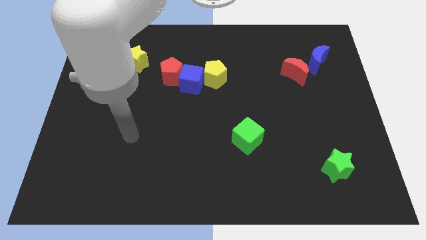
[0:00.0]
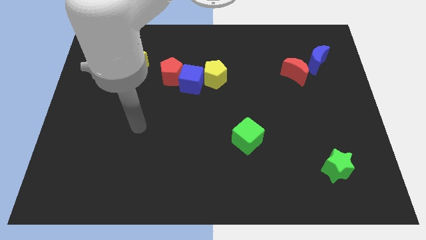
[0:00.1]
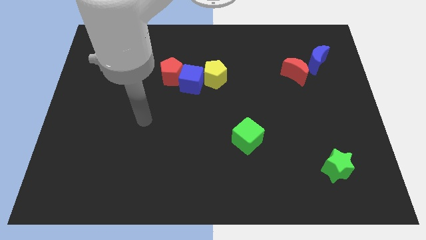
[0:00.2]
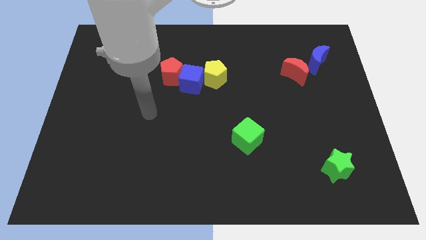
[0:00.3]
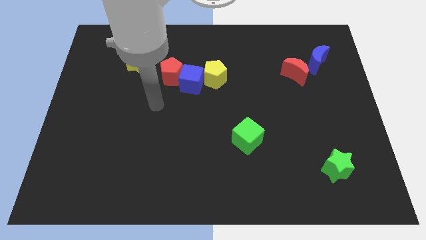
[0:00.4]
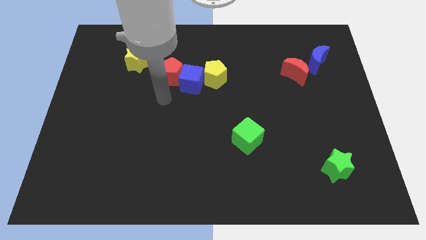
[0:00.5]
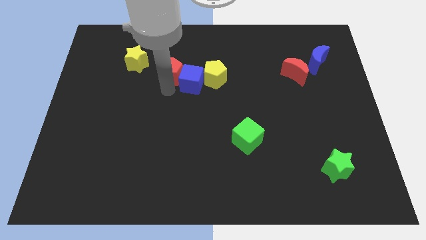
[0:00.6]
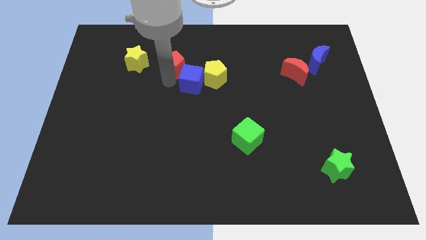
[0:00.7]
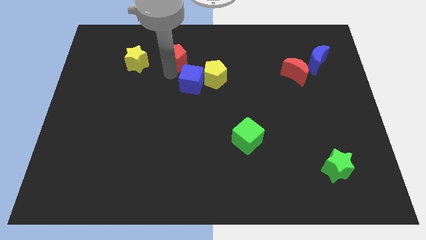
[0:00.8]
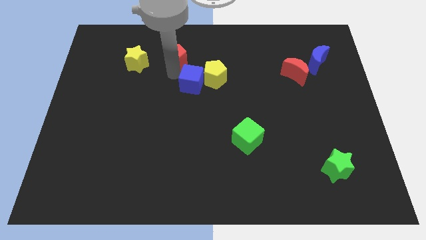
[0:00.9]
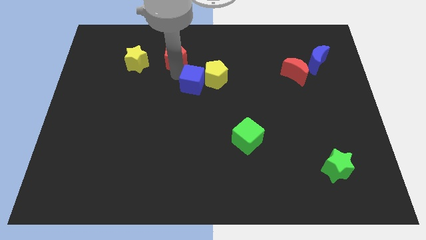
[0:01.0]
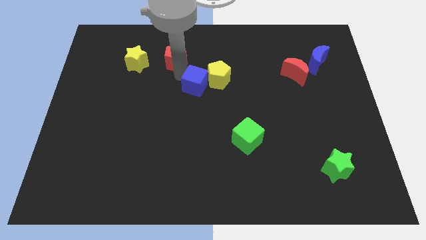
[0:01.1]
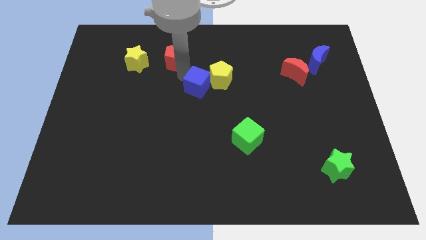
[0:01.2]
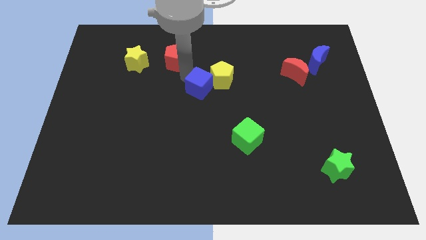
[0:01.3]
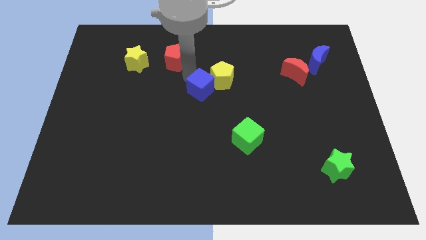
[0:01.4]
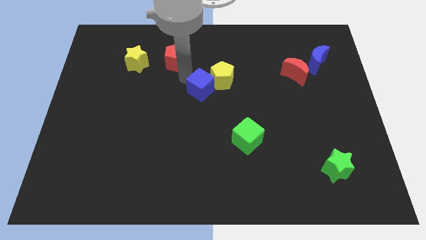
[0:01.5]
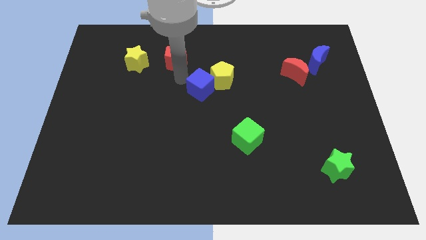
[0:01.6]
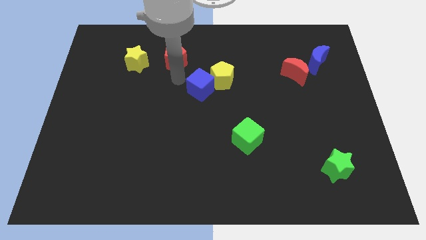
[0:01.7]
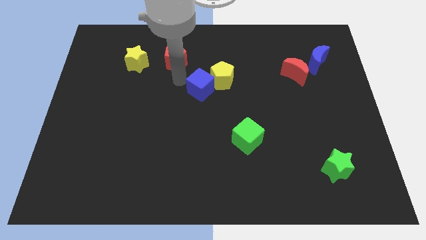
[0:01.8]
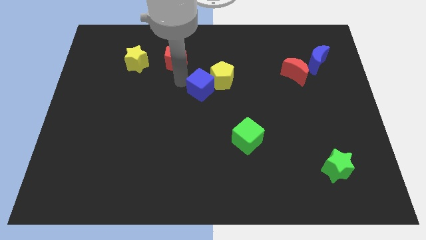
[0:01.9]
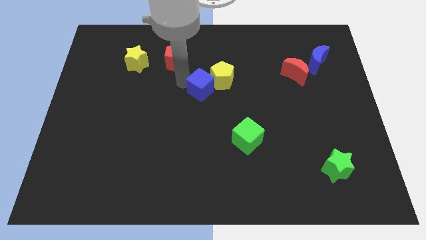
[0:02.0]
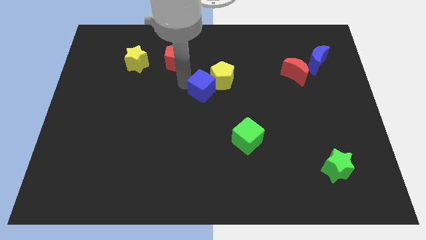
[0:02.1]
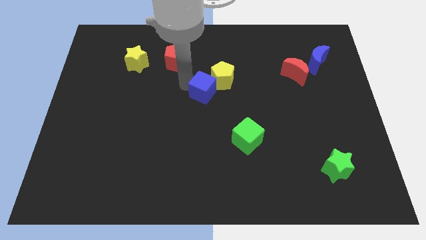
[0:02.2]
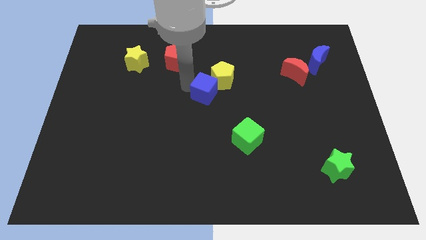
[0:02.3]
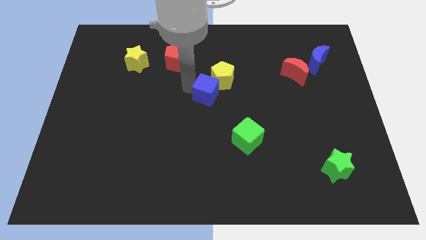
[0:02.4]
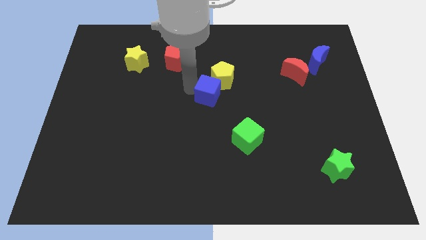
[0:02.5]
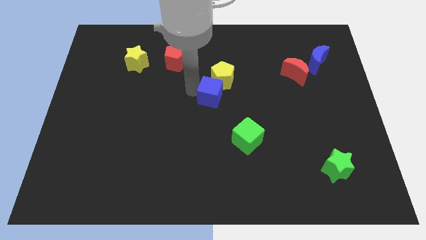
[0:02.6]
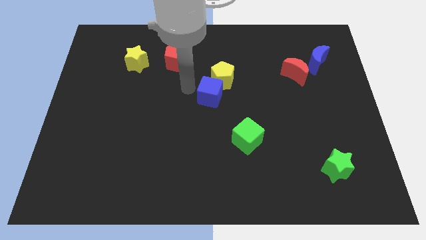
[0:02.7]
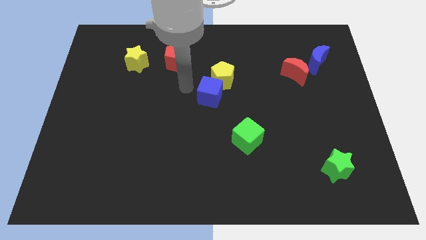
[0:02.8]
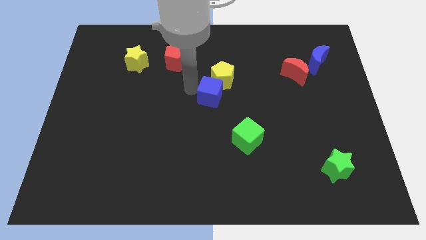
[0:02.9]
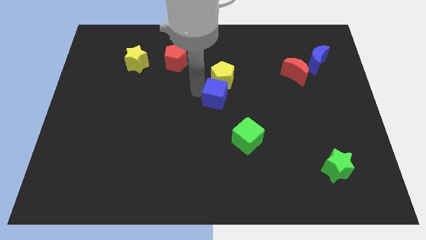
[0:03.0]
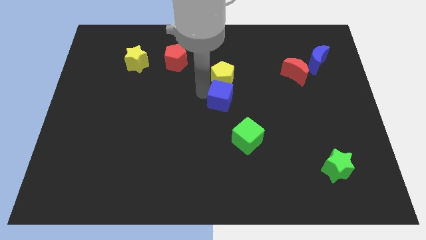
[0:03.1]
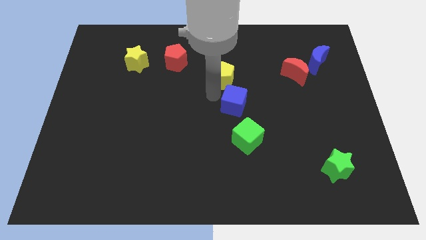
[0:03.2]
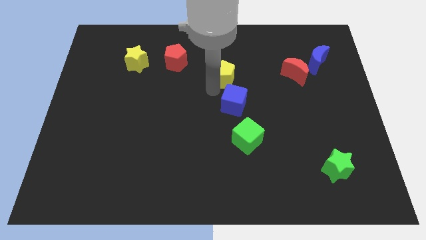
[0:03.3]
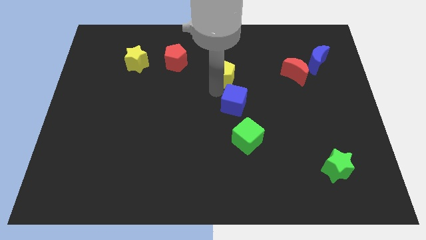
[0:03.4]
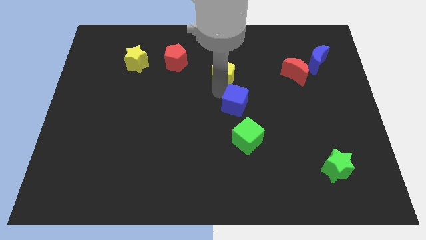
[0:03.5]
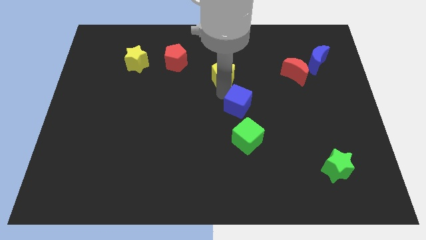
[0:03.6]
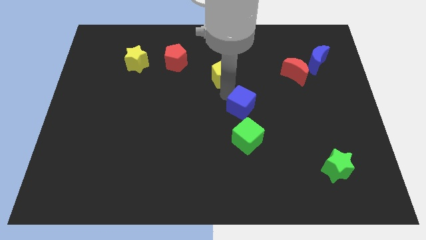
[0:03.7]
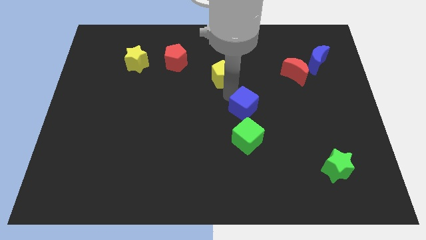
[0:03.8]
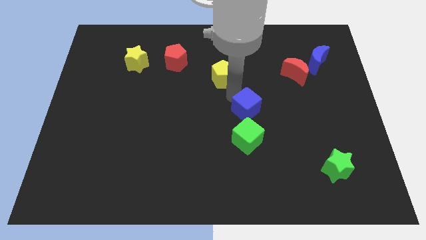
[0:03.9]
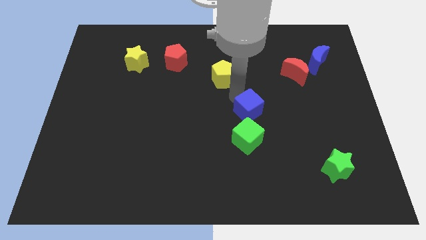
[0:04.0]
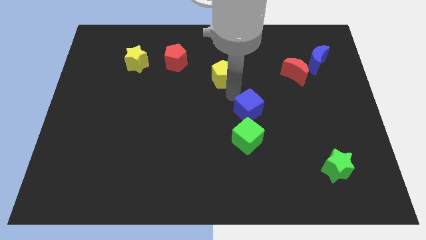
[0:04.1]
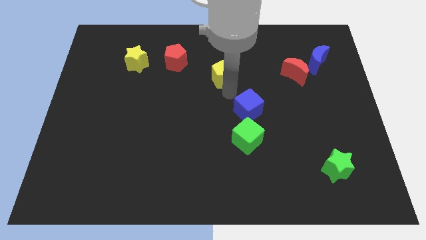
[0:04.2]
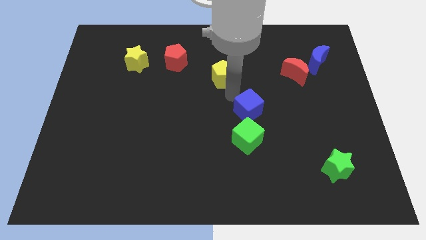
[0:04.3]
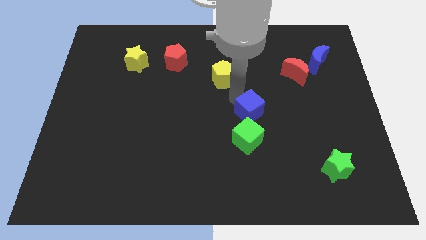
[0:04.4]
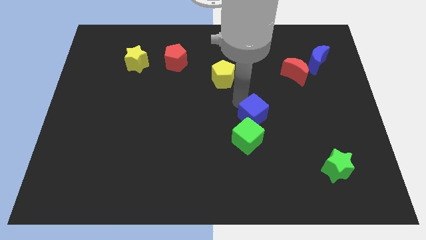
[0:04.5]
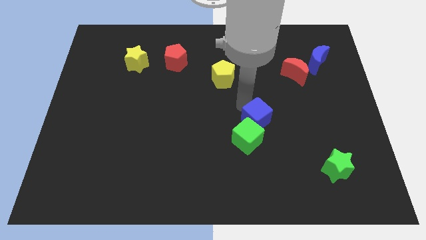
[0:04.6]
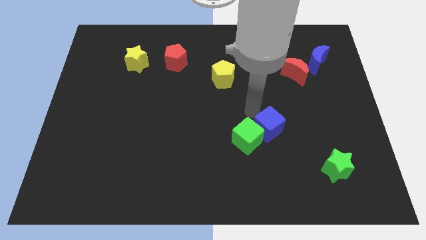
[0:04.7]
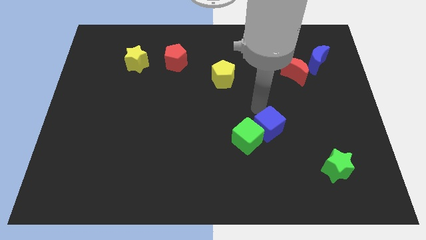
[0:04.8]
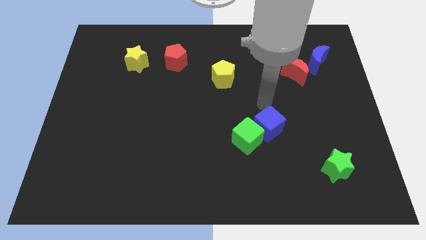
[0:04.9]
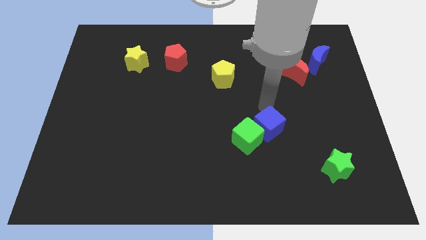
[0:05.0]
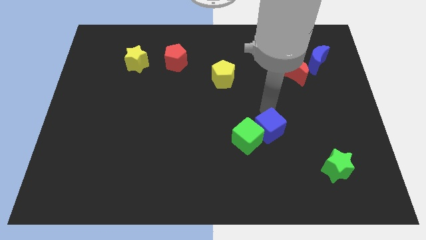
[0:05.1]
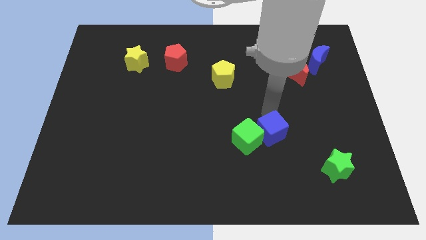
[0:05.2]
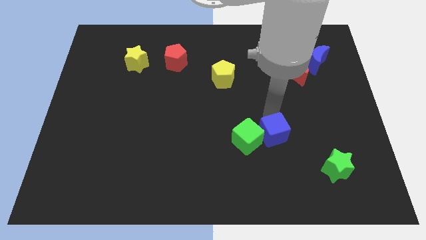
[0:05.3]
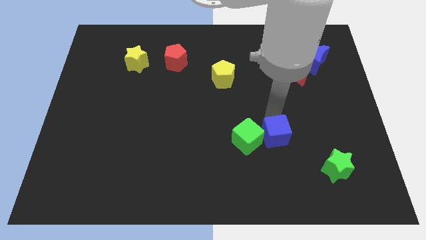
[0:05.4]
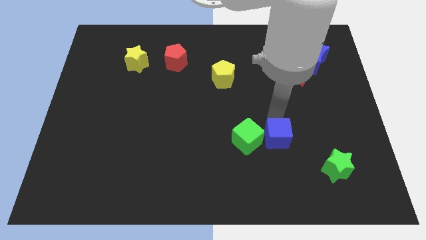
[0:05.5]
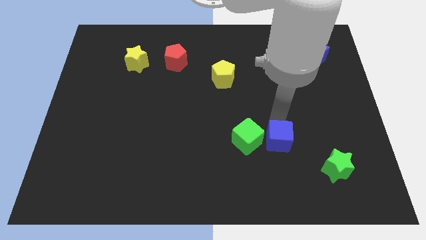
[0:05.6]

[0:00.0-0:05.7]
move the blue cube to the bottom right side of the green cube

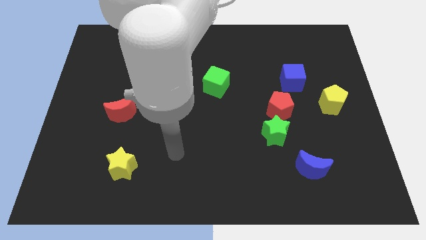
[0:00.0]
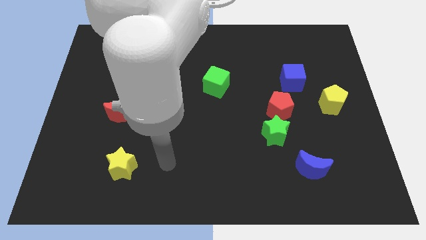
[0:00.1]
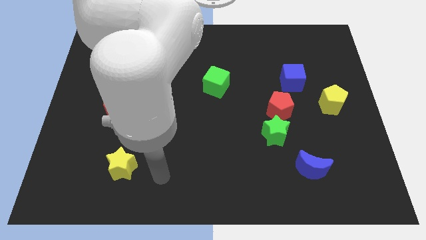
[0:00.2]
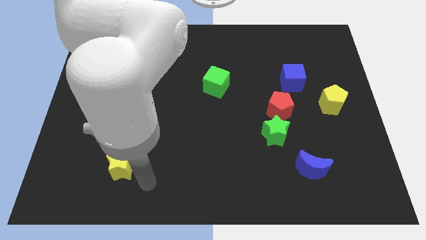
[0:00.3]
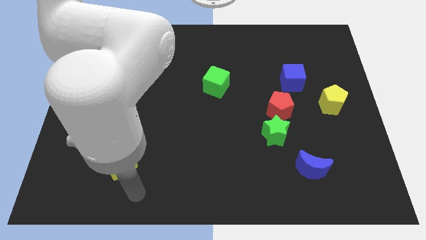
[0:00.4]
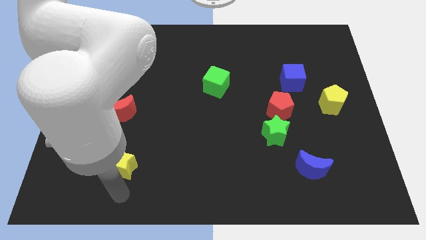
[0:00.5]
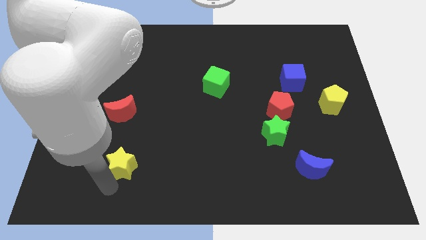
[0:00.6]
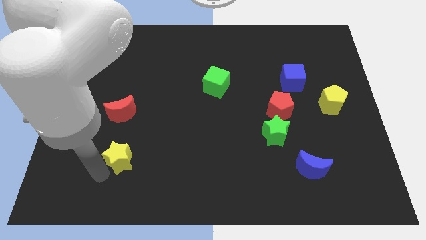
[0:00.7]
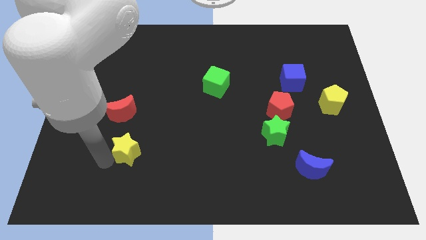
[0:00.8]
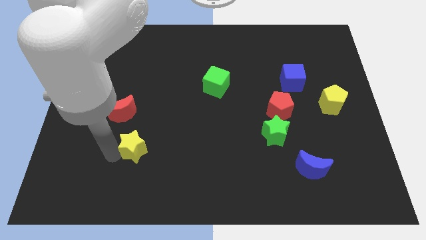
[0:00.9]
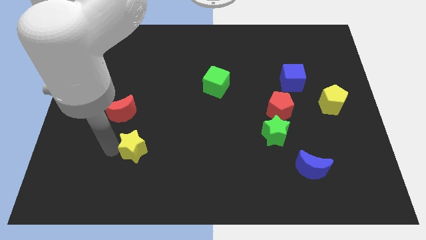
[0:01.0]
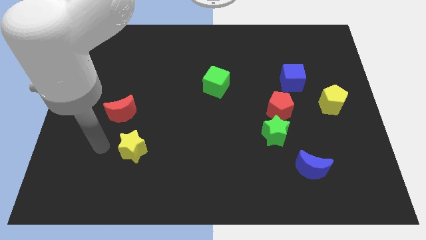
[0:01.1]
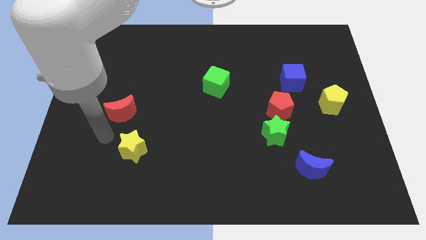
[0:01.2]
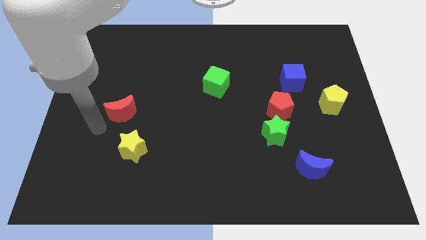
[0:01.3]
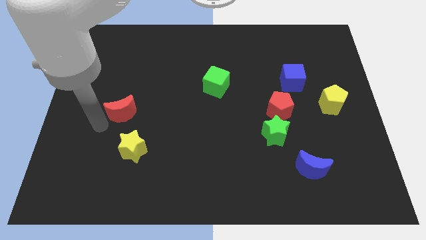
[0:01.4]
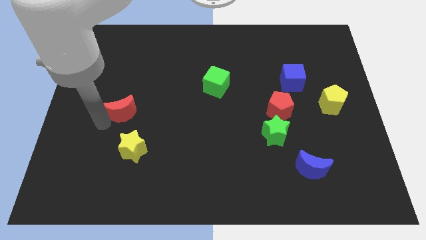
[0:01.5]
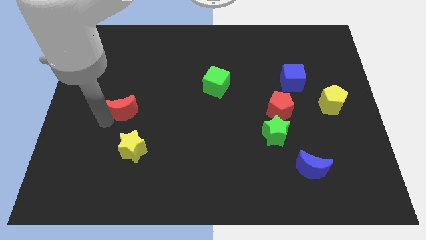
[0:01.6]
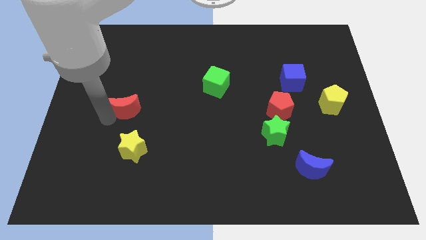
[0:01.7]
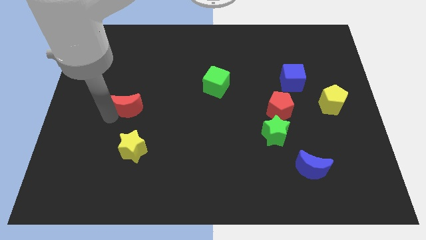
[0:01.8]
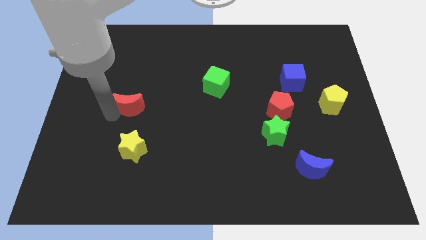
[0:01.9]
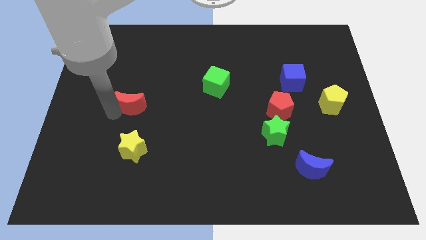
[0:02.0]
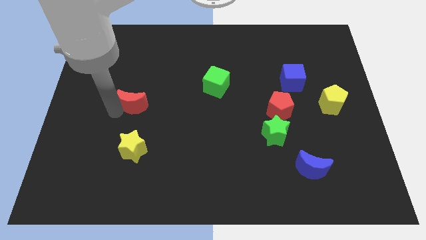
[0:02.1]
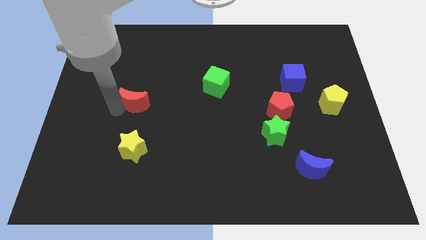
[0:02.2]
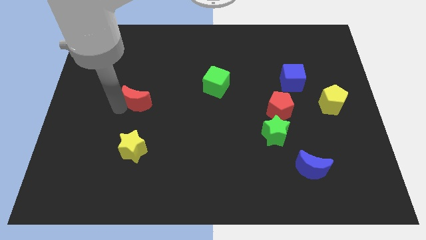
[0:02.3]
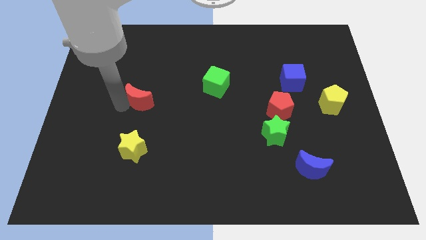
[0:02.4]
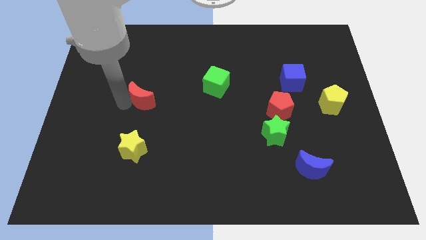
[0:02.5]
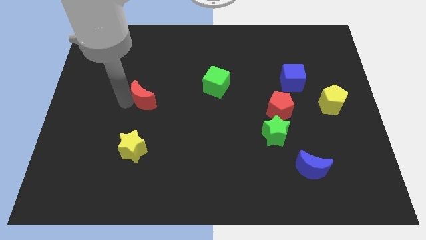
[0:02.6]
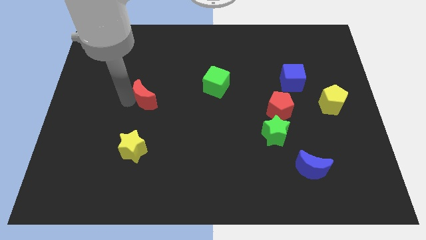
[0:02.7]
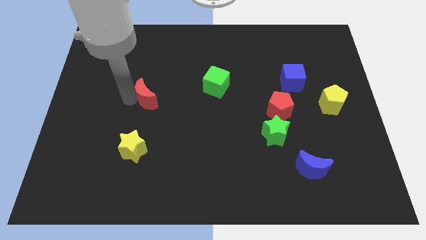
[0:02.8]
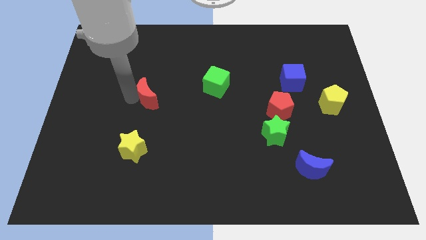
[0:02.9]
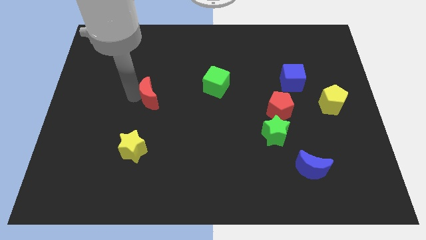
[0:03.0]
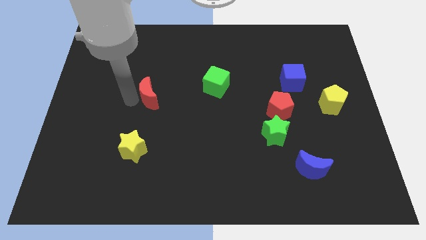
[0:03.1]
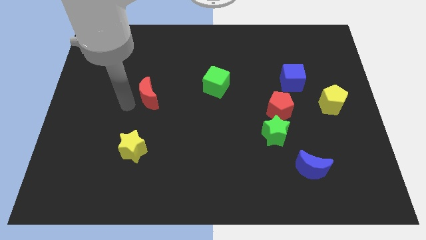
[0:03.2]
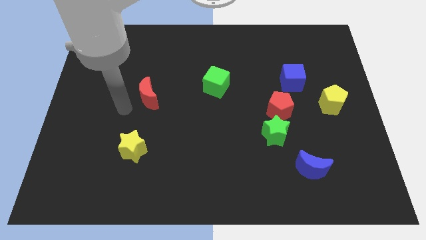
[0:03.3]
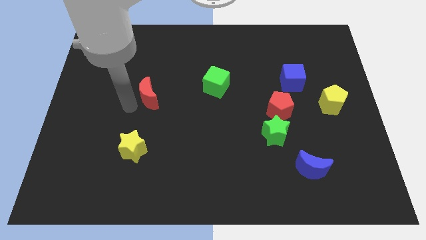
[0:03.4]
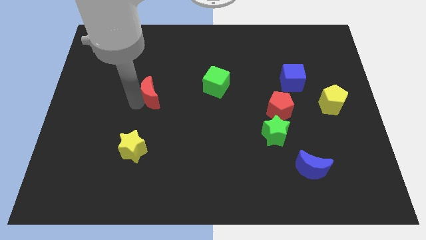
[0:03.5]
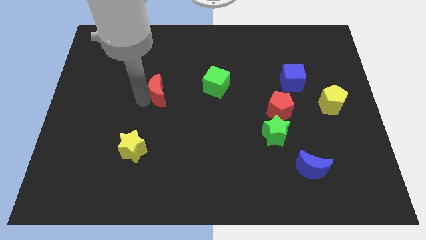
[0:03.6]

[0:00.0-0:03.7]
move the red moon just left of the green cube
